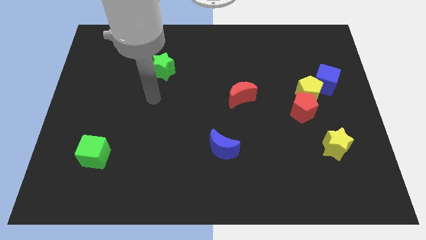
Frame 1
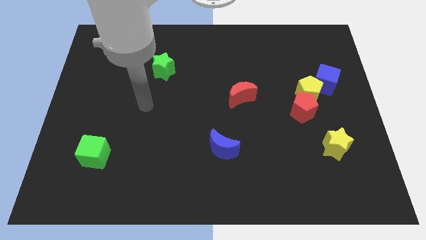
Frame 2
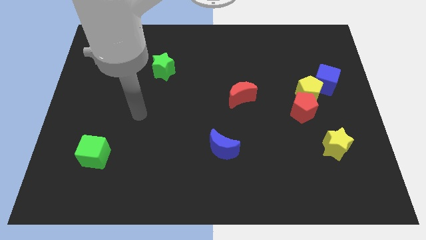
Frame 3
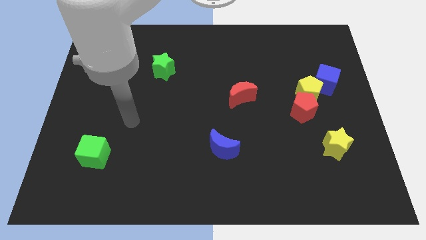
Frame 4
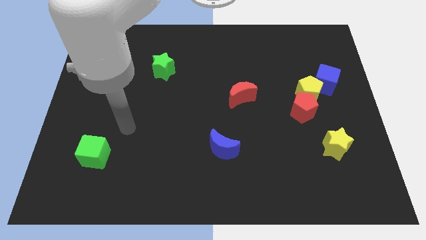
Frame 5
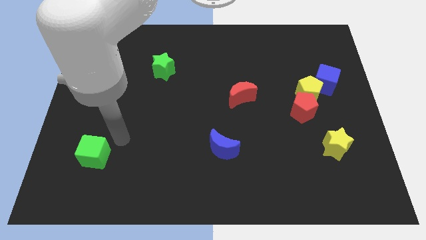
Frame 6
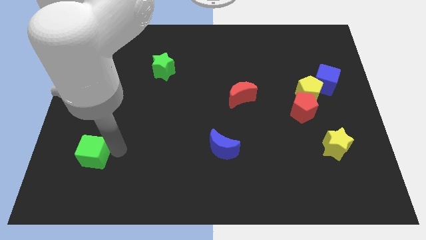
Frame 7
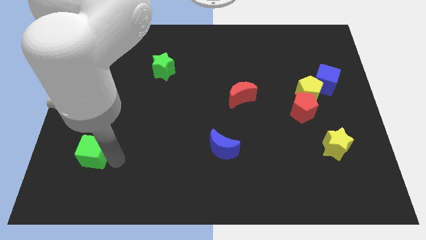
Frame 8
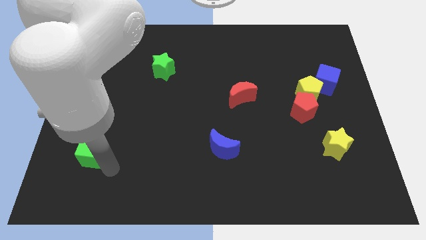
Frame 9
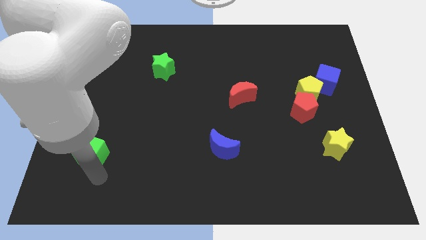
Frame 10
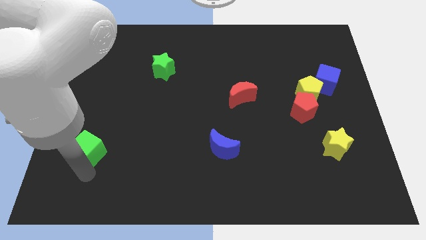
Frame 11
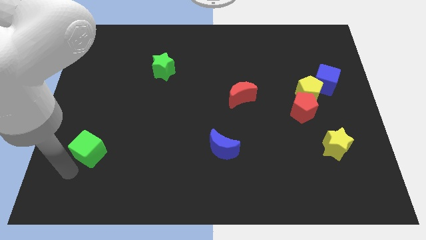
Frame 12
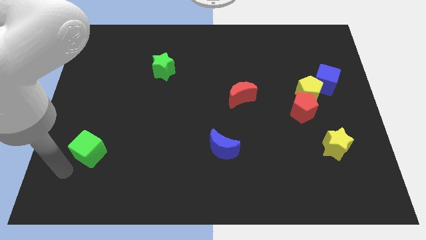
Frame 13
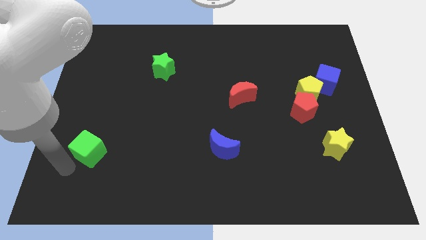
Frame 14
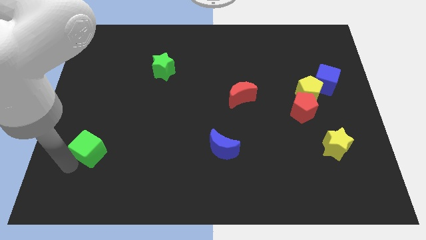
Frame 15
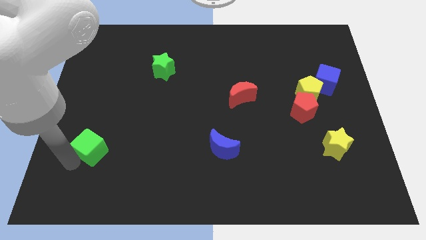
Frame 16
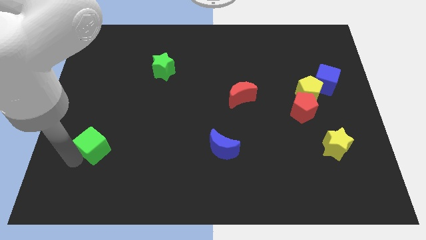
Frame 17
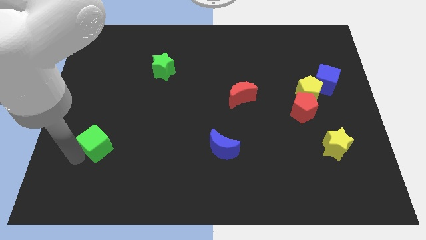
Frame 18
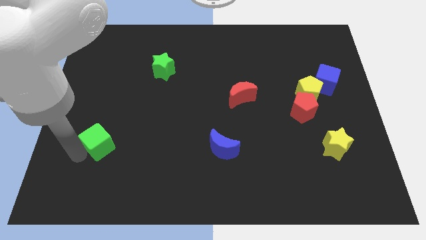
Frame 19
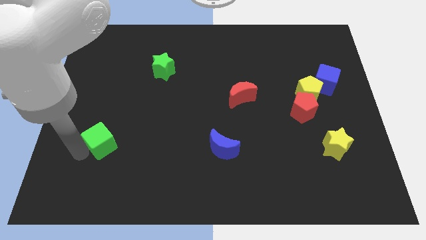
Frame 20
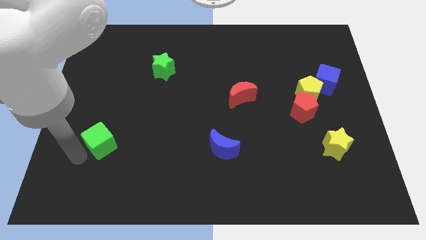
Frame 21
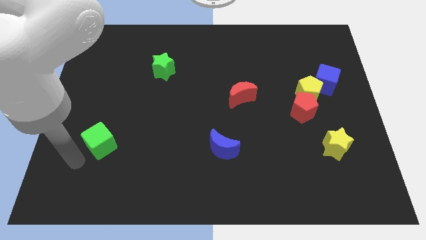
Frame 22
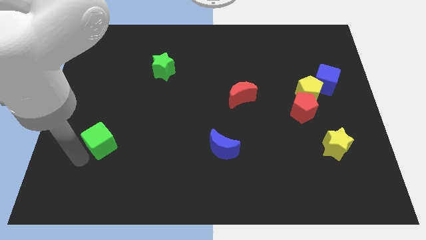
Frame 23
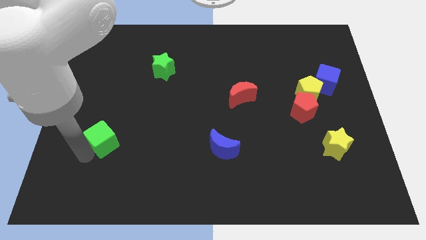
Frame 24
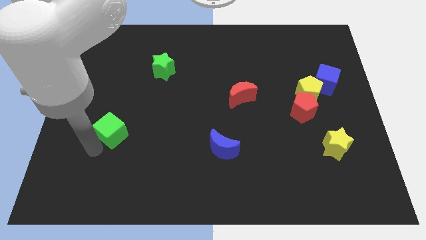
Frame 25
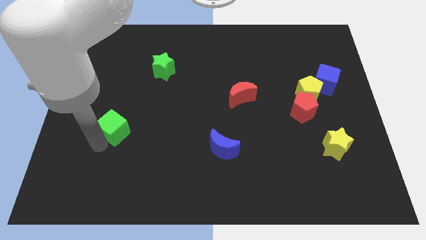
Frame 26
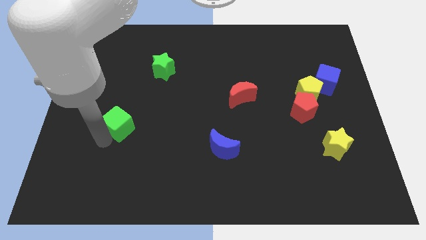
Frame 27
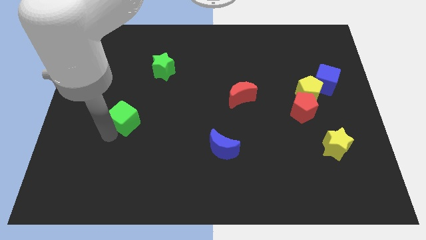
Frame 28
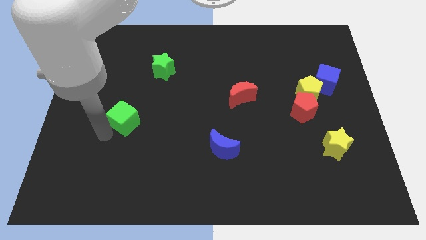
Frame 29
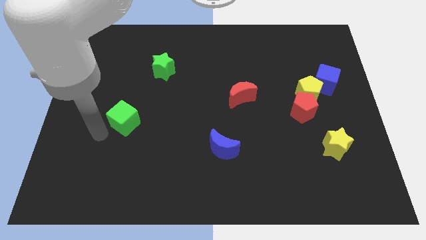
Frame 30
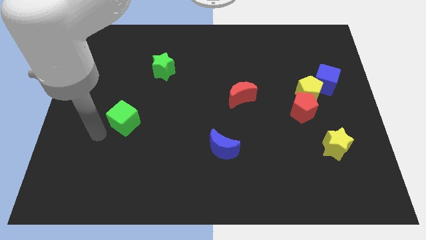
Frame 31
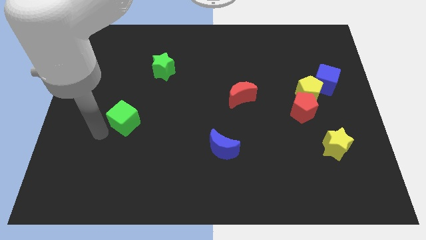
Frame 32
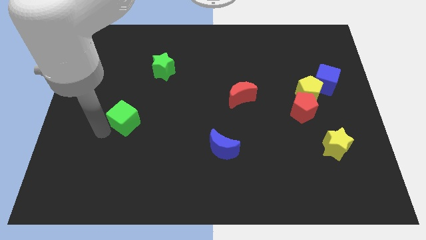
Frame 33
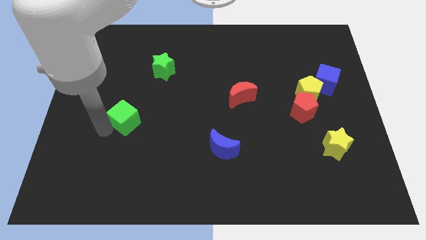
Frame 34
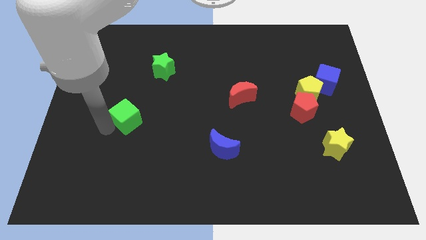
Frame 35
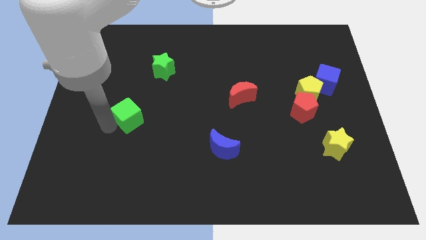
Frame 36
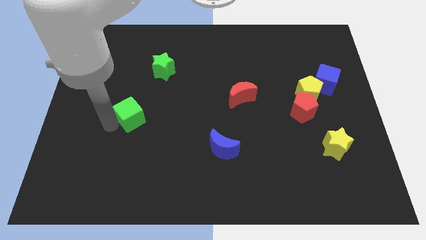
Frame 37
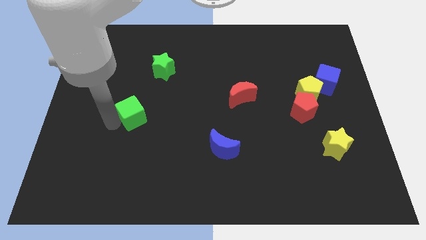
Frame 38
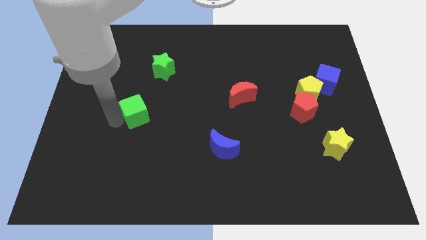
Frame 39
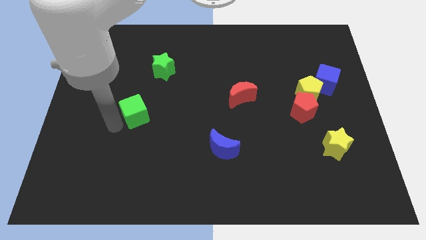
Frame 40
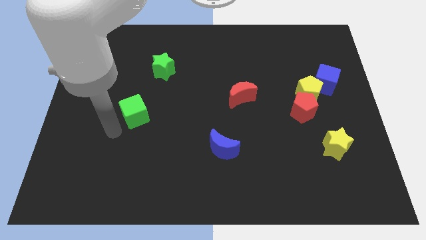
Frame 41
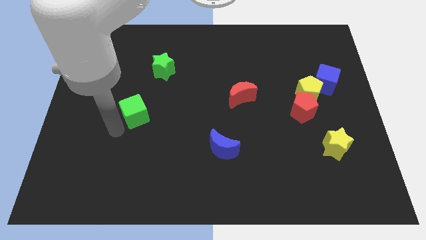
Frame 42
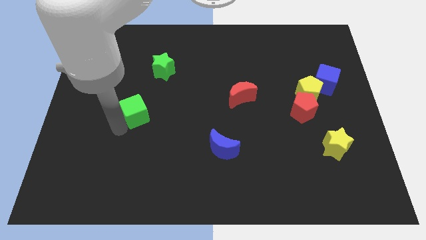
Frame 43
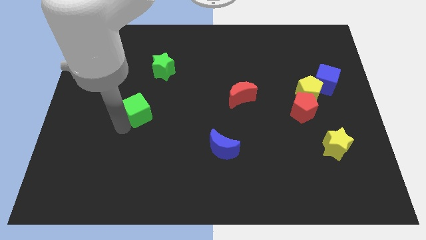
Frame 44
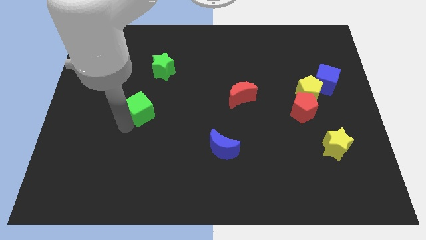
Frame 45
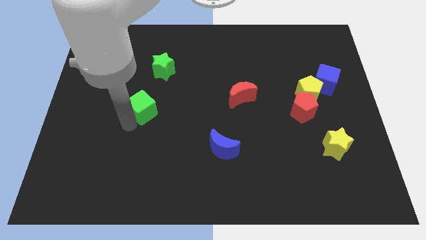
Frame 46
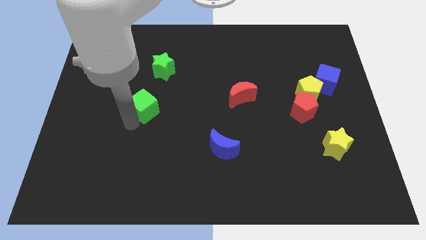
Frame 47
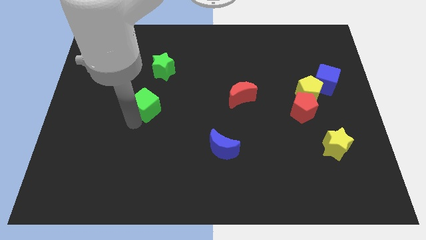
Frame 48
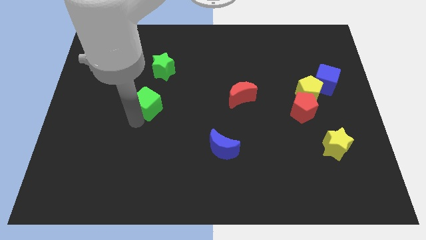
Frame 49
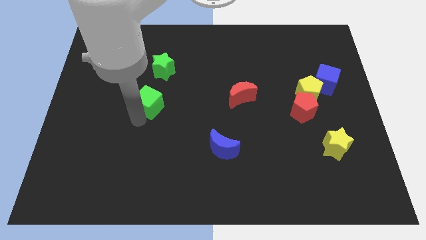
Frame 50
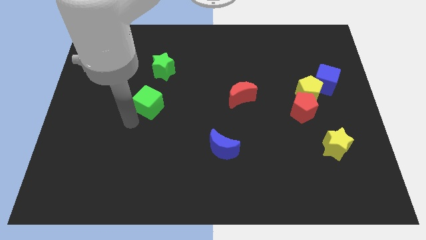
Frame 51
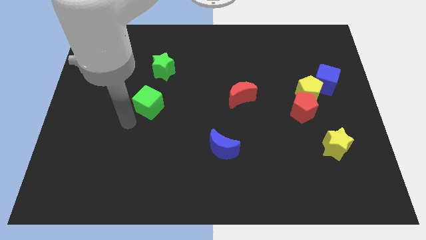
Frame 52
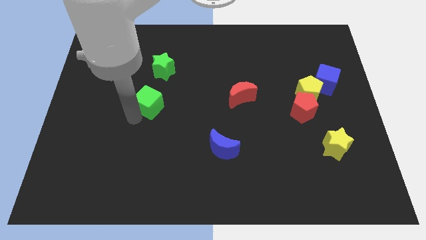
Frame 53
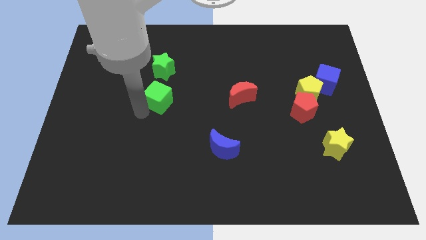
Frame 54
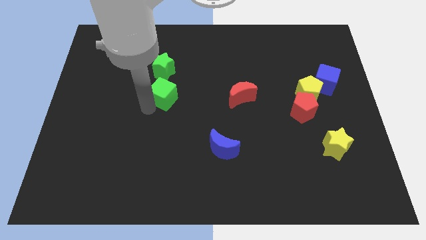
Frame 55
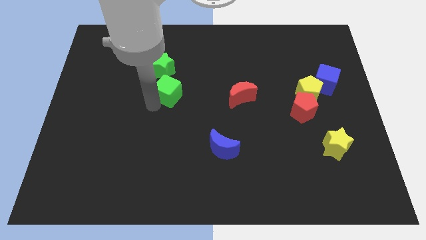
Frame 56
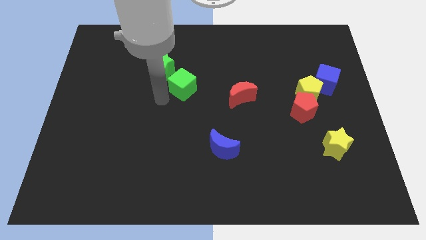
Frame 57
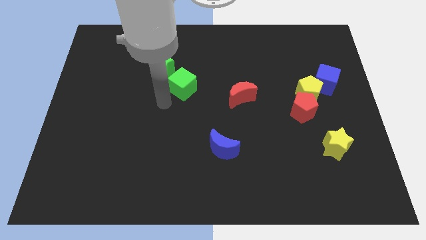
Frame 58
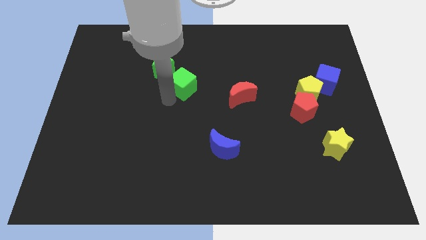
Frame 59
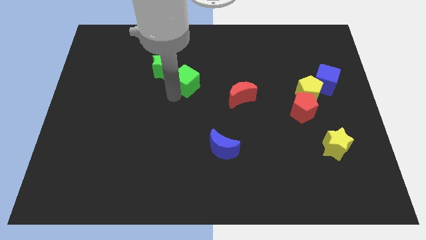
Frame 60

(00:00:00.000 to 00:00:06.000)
move the green cube to the right of the green star

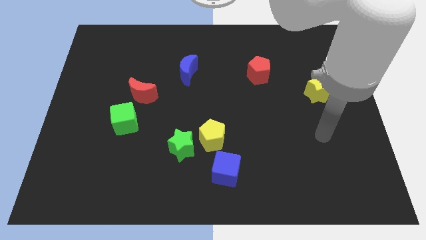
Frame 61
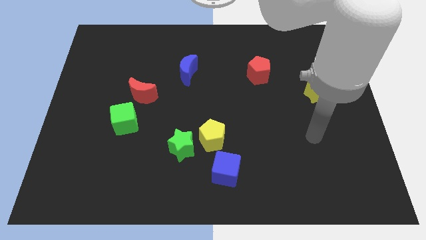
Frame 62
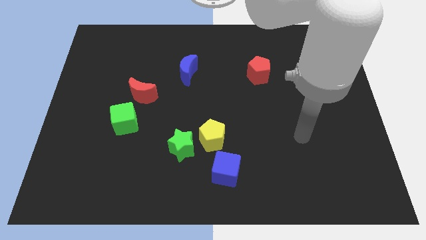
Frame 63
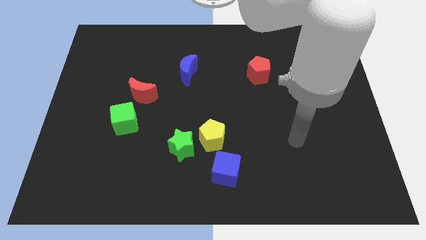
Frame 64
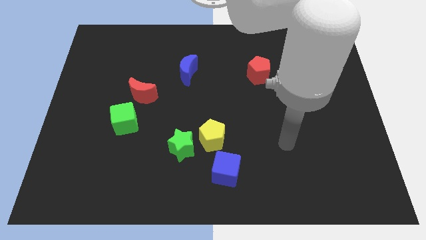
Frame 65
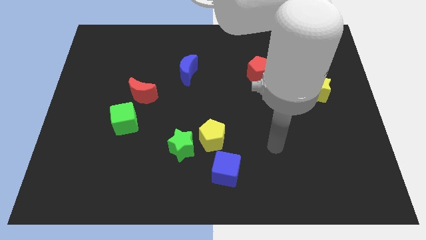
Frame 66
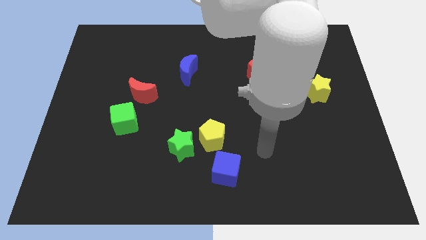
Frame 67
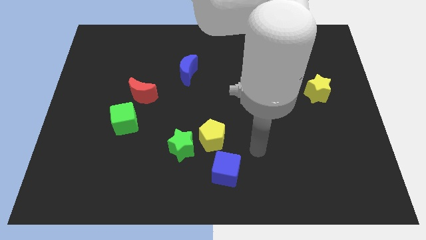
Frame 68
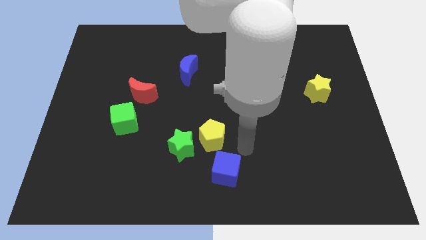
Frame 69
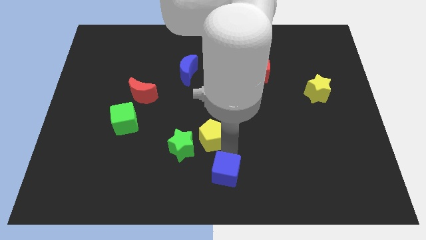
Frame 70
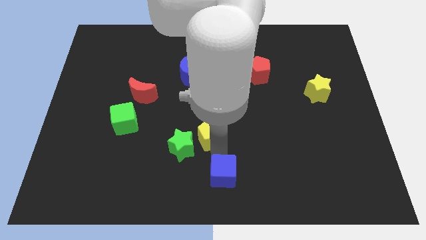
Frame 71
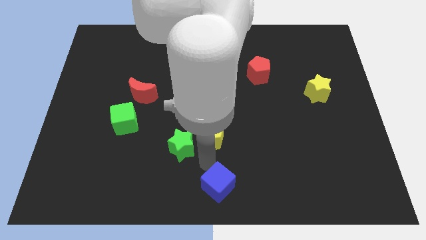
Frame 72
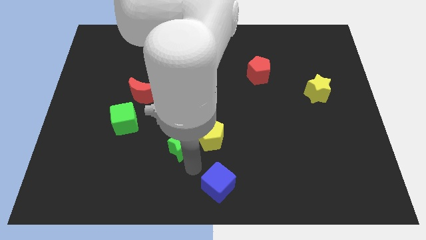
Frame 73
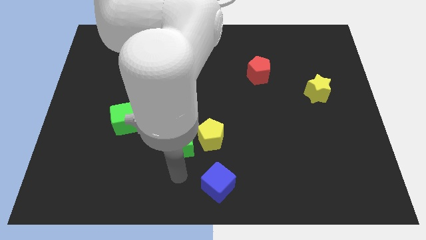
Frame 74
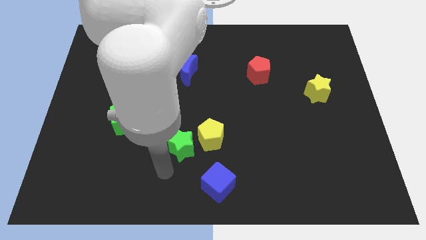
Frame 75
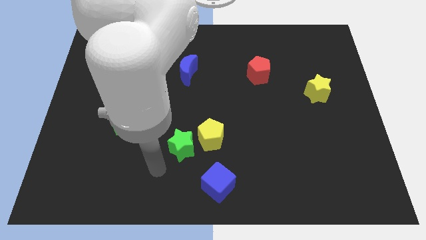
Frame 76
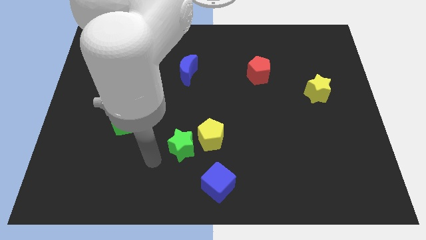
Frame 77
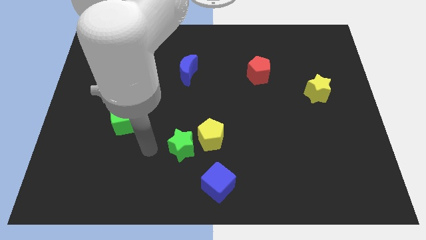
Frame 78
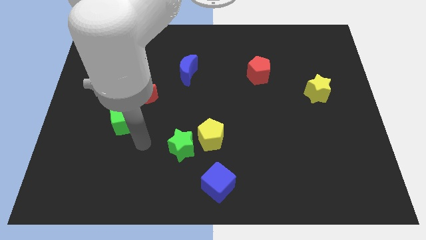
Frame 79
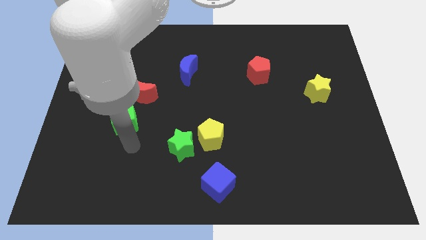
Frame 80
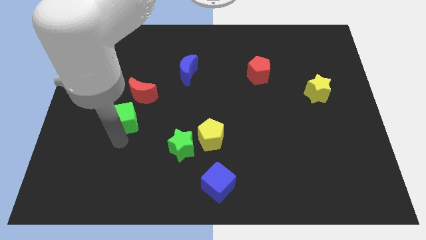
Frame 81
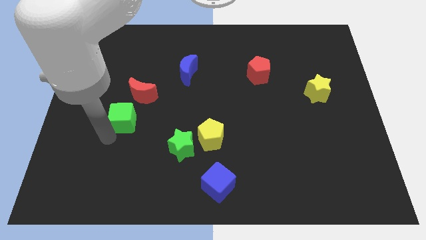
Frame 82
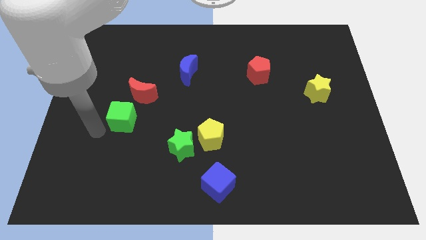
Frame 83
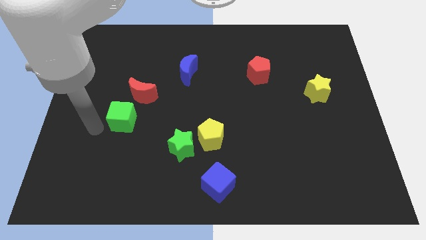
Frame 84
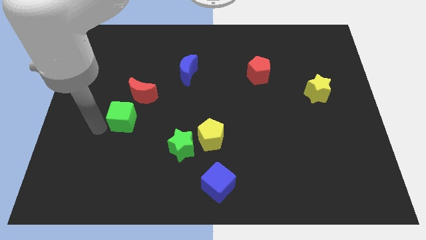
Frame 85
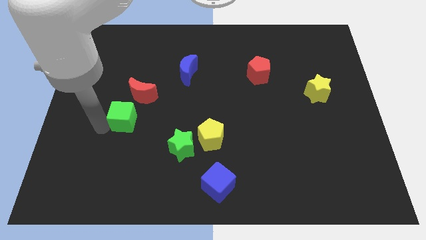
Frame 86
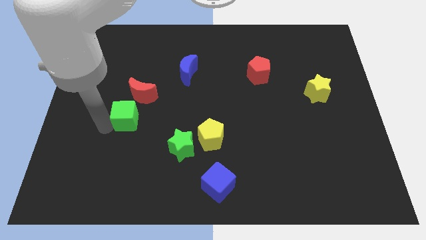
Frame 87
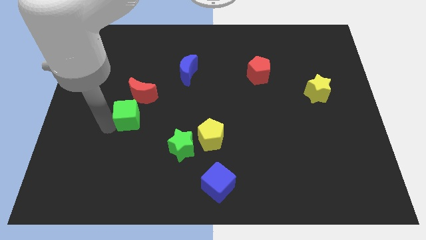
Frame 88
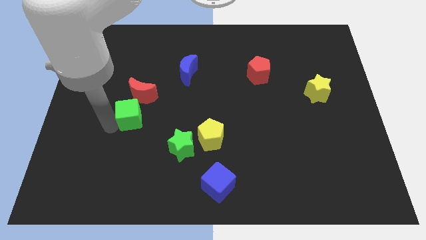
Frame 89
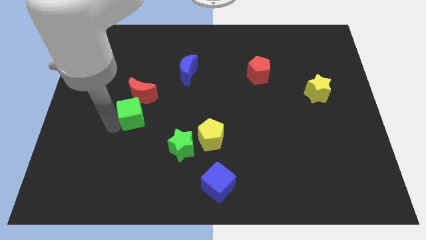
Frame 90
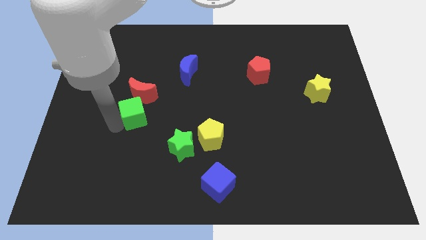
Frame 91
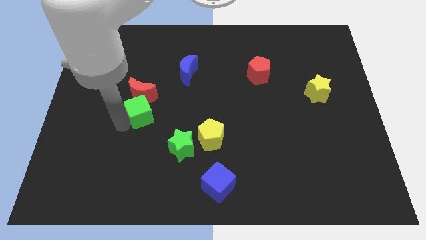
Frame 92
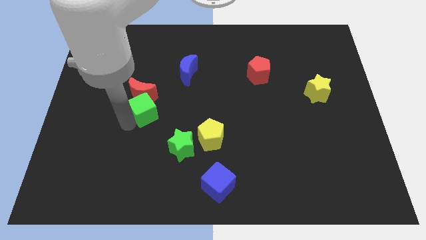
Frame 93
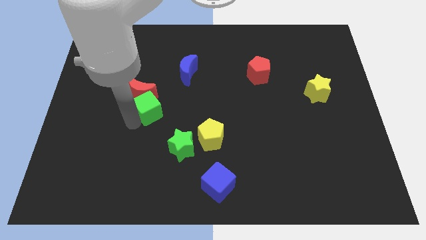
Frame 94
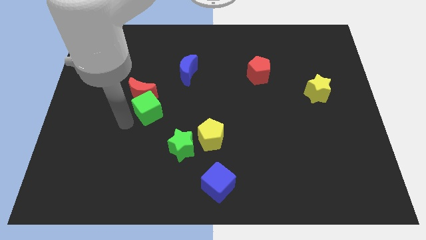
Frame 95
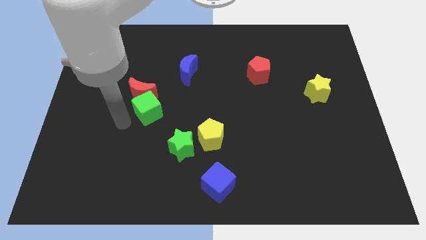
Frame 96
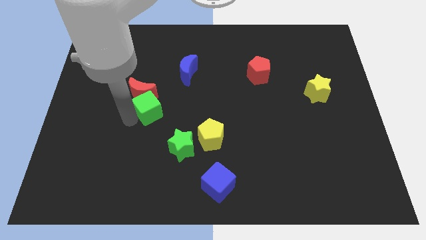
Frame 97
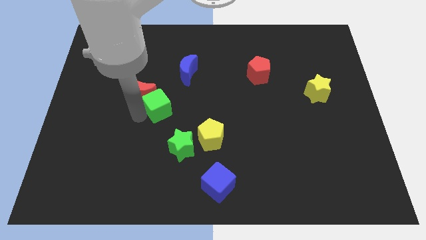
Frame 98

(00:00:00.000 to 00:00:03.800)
put the green cube to the right of the red moon
